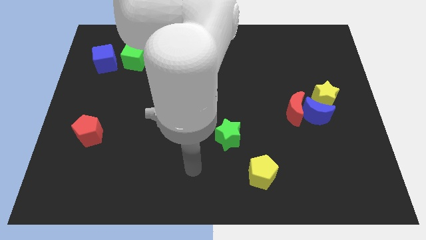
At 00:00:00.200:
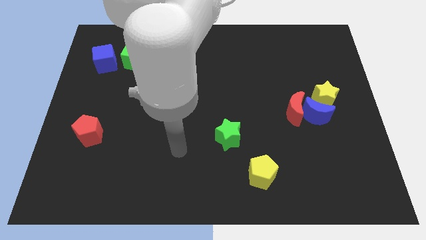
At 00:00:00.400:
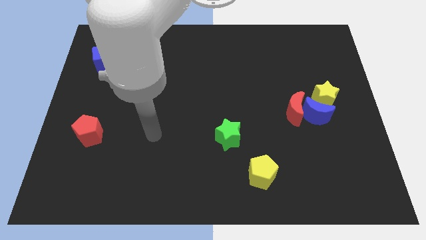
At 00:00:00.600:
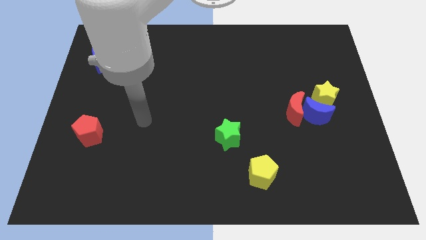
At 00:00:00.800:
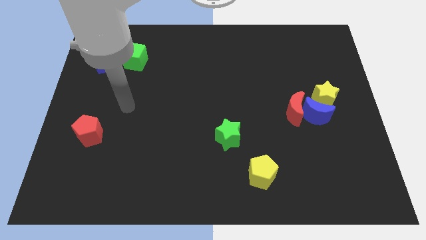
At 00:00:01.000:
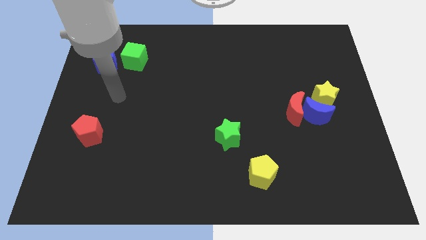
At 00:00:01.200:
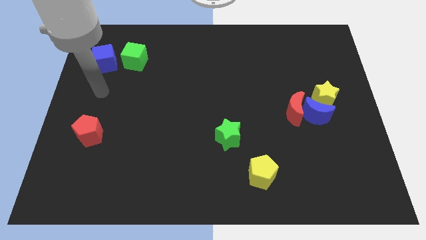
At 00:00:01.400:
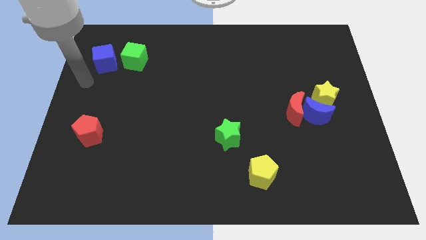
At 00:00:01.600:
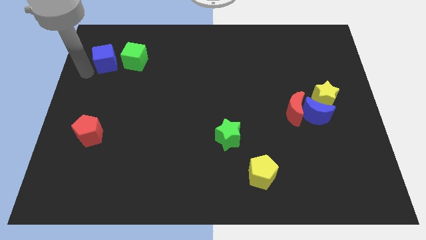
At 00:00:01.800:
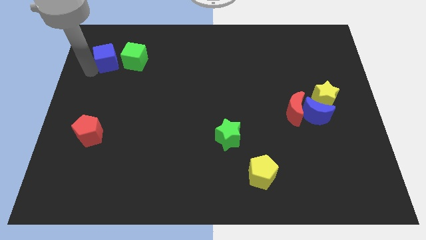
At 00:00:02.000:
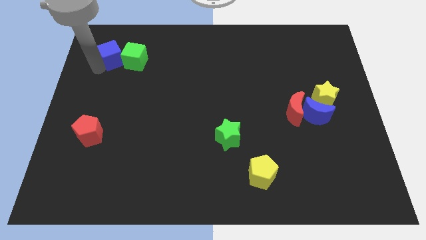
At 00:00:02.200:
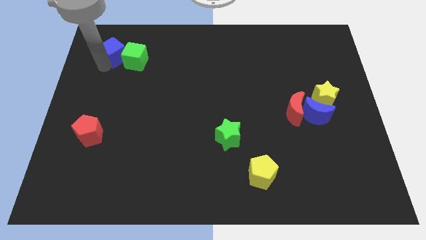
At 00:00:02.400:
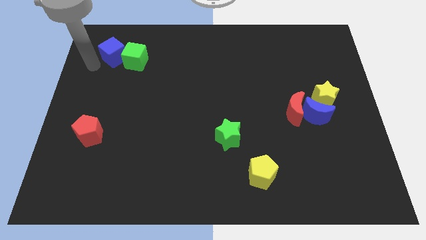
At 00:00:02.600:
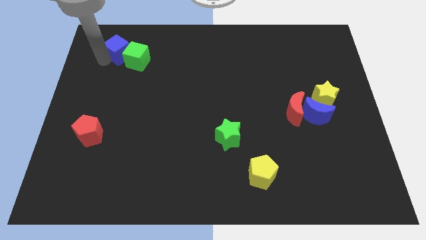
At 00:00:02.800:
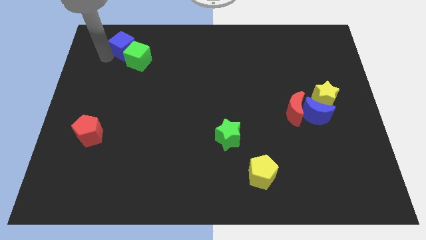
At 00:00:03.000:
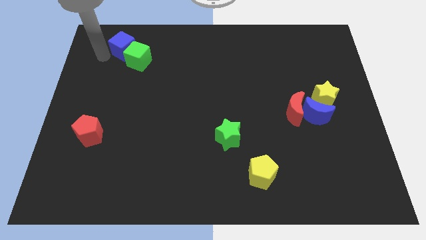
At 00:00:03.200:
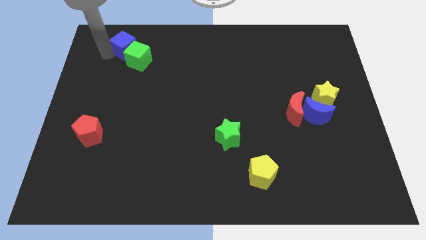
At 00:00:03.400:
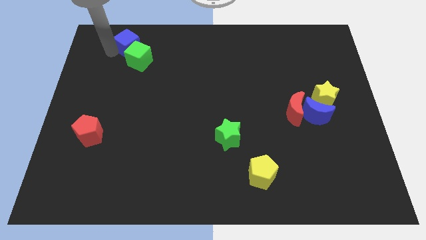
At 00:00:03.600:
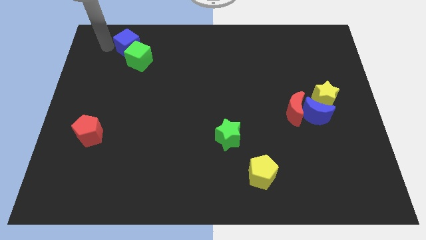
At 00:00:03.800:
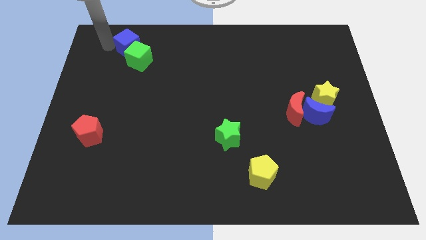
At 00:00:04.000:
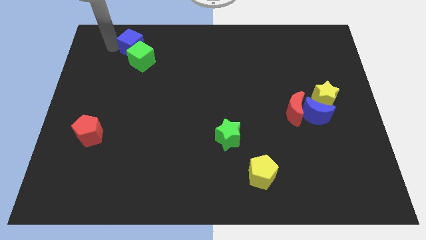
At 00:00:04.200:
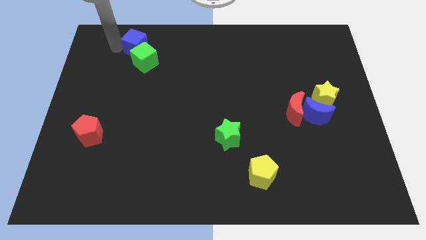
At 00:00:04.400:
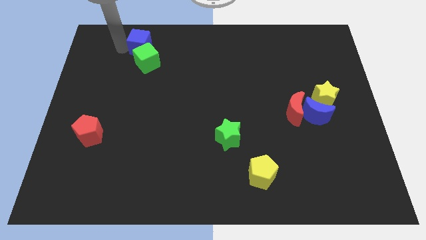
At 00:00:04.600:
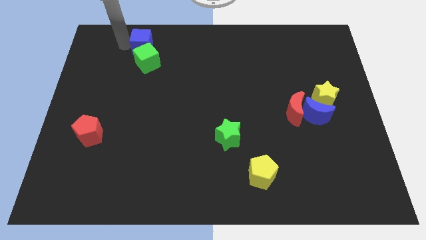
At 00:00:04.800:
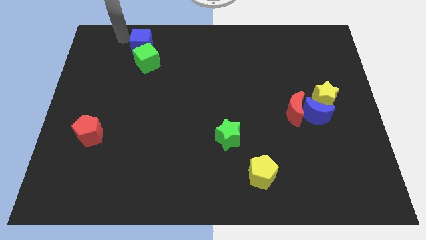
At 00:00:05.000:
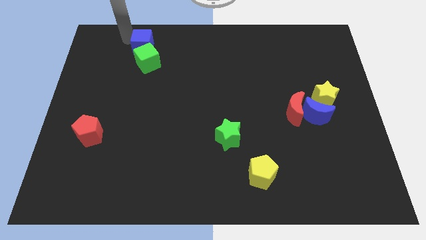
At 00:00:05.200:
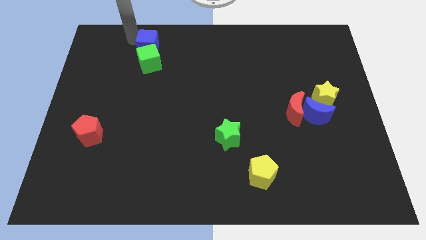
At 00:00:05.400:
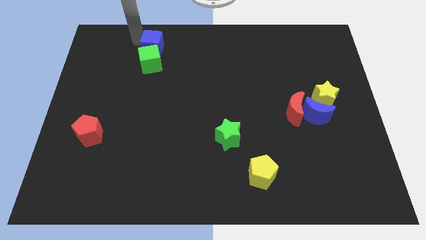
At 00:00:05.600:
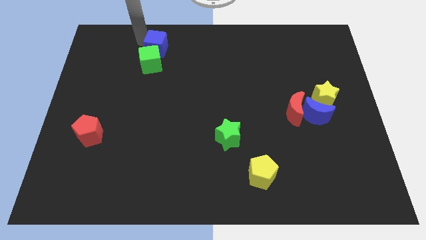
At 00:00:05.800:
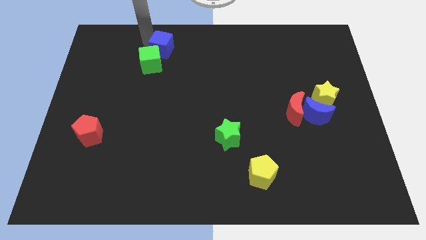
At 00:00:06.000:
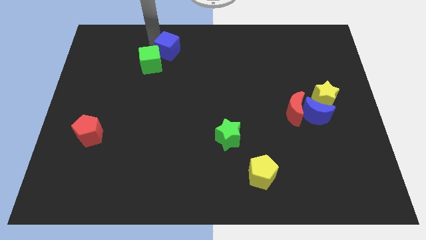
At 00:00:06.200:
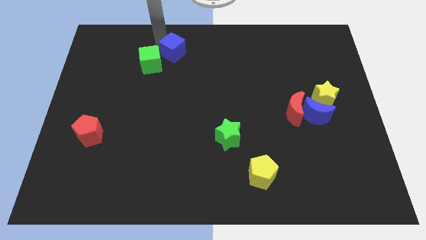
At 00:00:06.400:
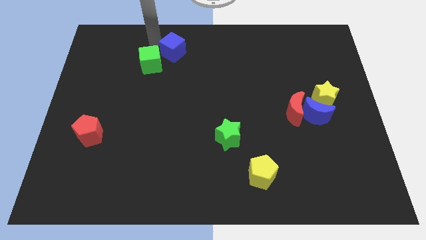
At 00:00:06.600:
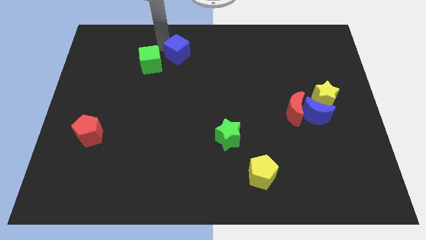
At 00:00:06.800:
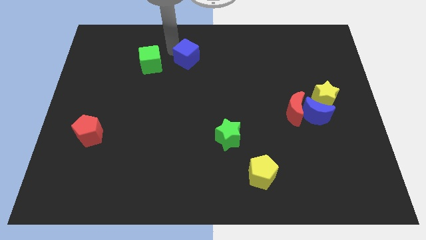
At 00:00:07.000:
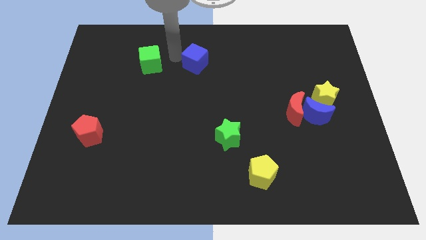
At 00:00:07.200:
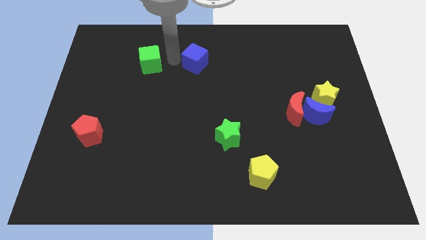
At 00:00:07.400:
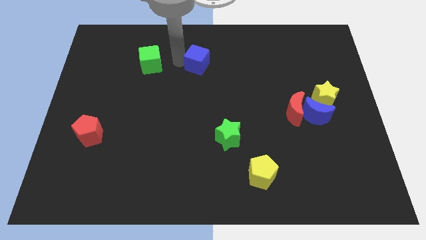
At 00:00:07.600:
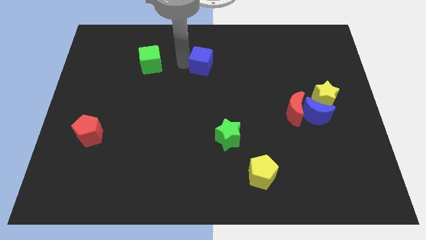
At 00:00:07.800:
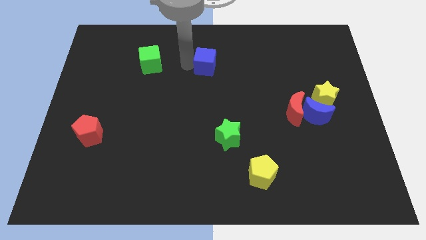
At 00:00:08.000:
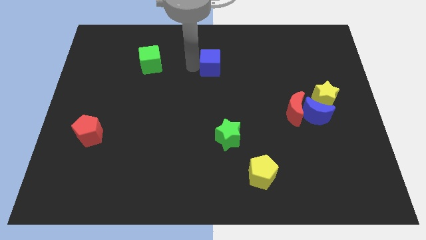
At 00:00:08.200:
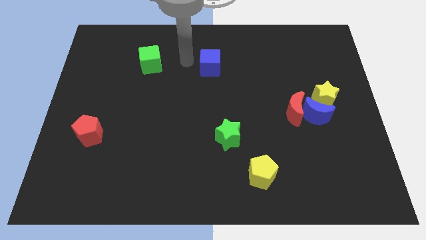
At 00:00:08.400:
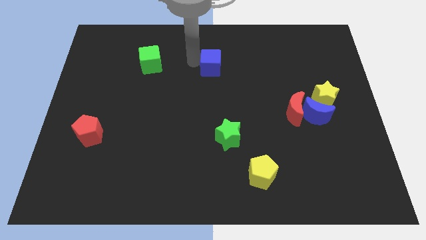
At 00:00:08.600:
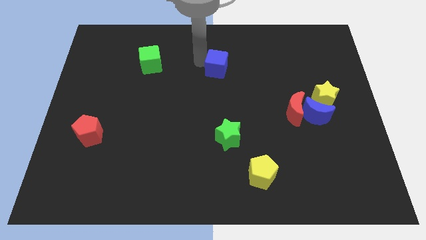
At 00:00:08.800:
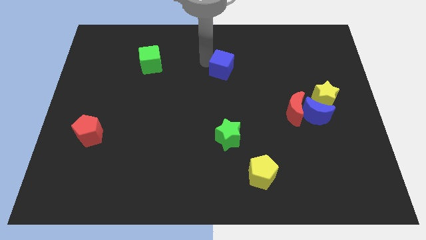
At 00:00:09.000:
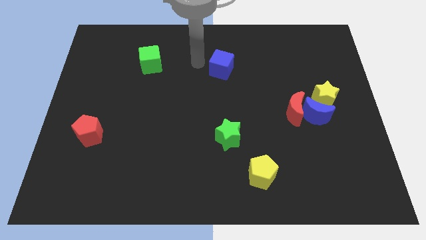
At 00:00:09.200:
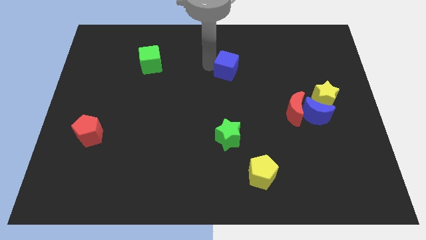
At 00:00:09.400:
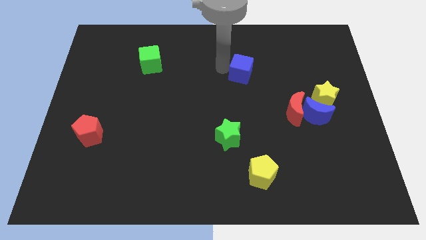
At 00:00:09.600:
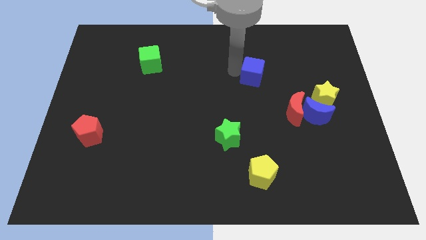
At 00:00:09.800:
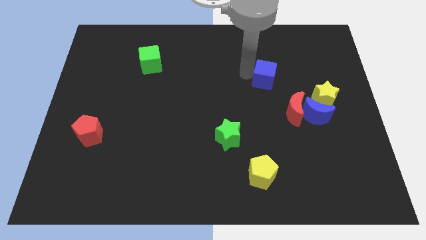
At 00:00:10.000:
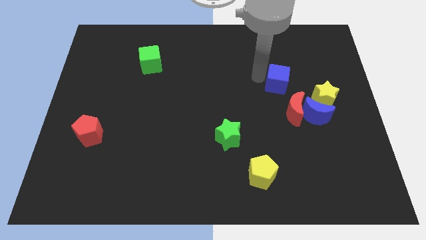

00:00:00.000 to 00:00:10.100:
slide the blue cube diagonally up and to the left of the yellow star

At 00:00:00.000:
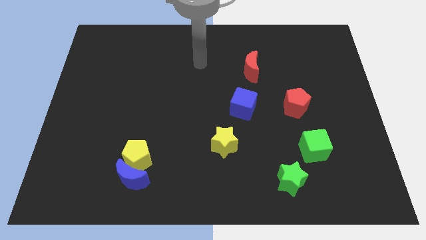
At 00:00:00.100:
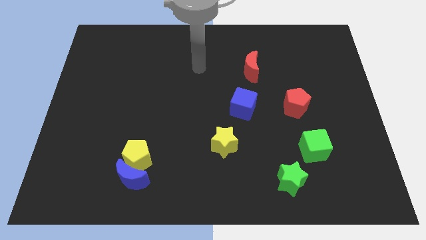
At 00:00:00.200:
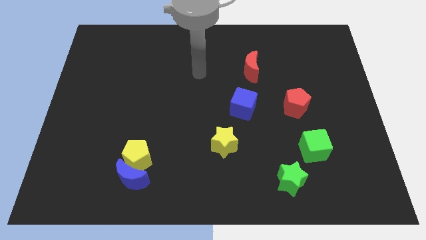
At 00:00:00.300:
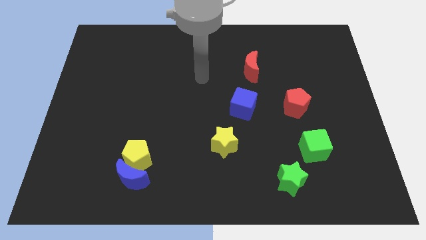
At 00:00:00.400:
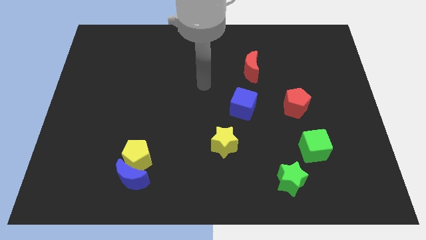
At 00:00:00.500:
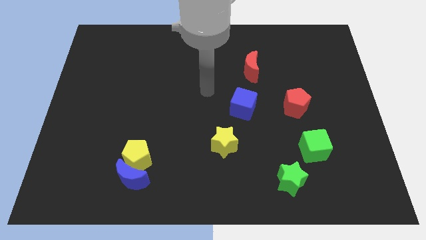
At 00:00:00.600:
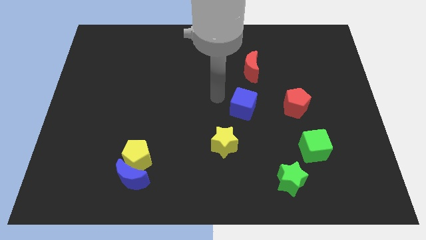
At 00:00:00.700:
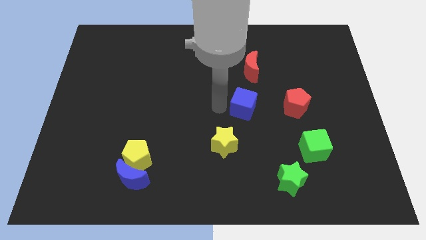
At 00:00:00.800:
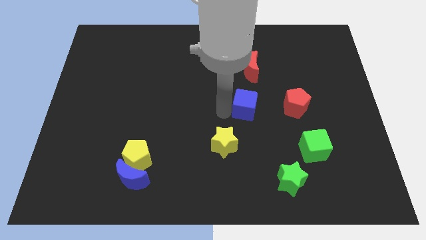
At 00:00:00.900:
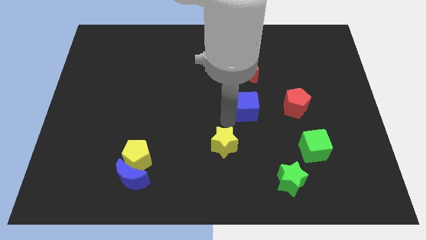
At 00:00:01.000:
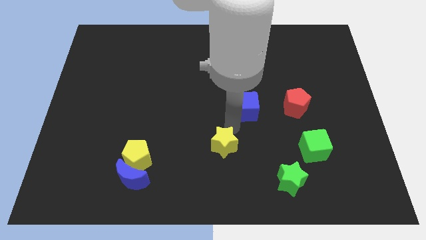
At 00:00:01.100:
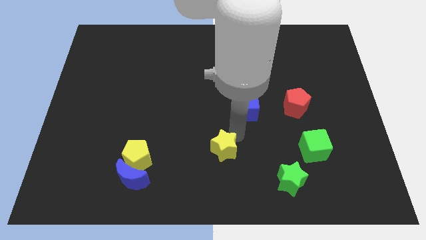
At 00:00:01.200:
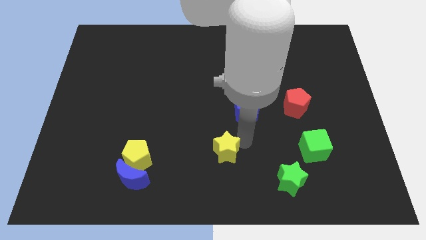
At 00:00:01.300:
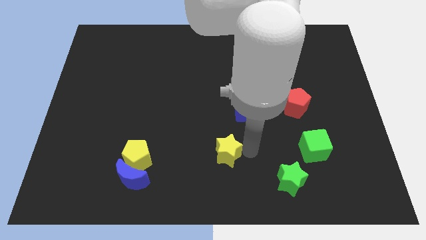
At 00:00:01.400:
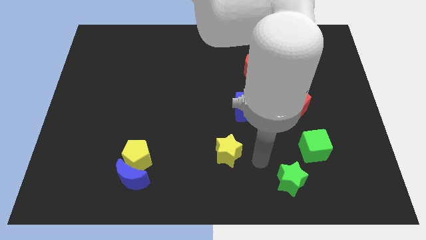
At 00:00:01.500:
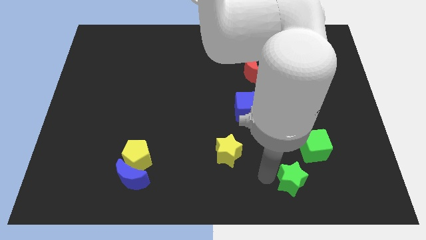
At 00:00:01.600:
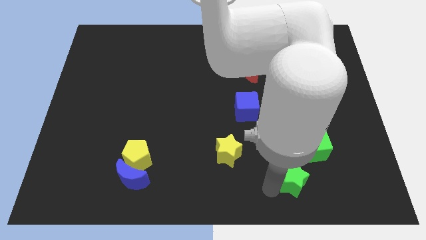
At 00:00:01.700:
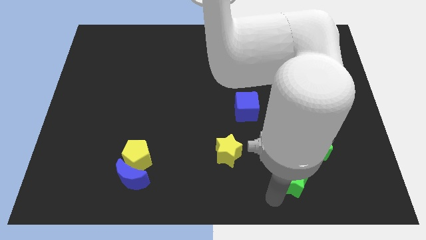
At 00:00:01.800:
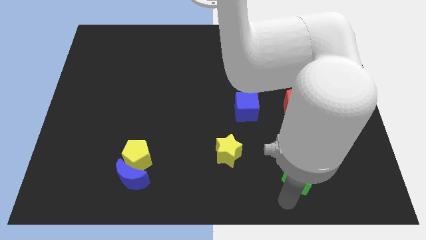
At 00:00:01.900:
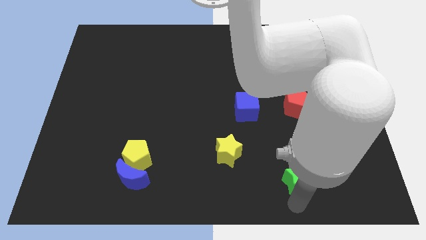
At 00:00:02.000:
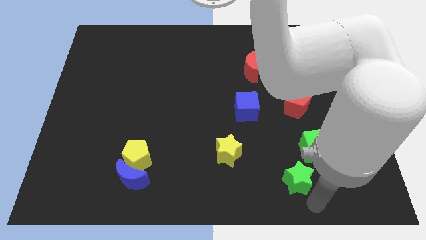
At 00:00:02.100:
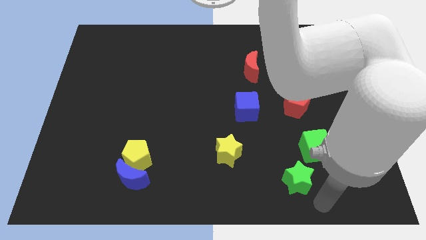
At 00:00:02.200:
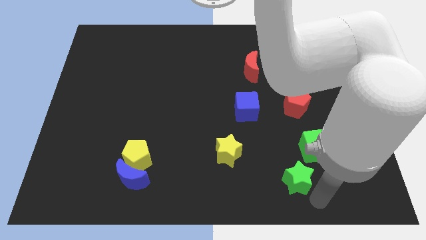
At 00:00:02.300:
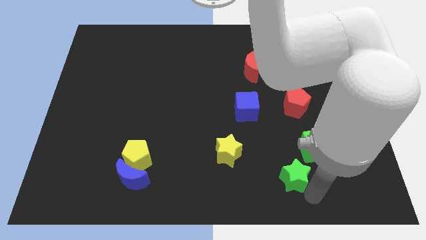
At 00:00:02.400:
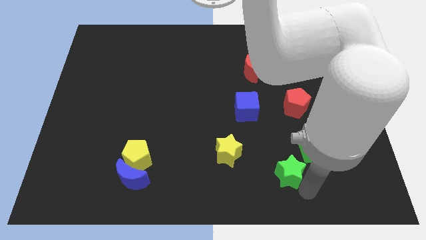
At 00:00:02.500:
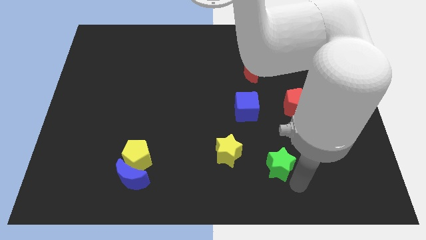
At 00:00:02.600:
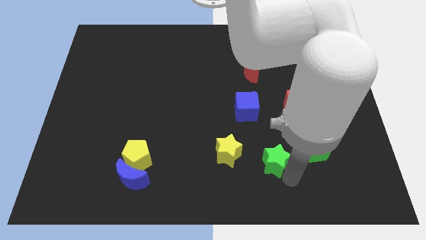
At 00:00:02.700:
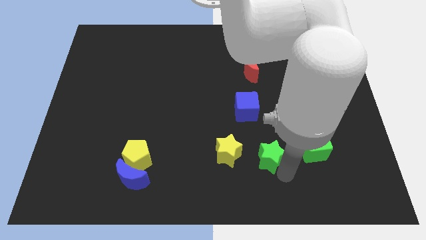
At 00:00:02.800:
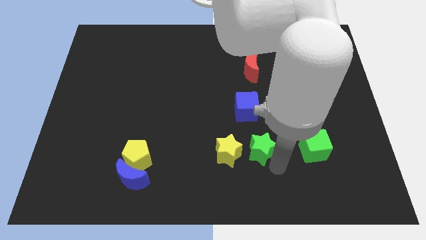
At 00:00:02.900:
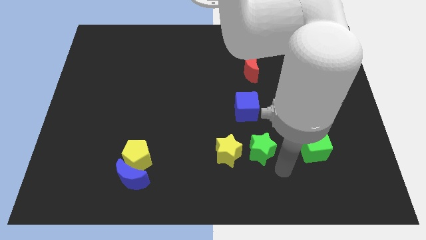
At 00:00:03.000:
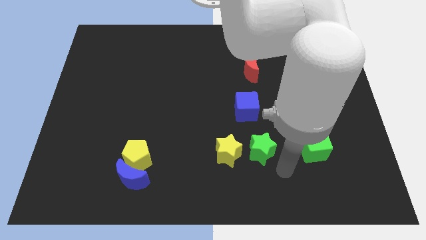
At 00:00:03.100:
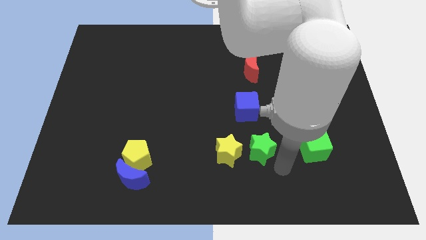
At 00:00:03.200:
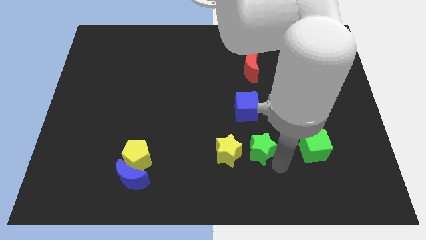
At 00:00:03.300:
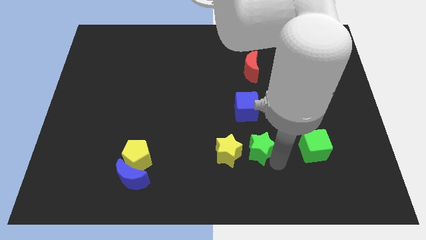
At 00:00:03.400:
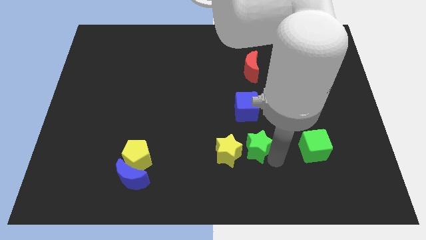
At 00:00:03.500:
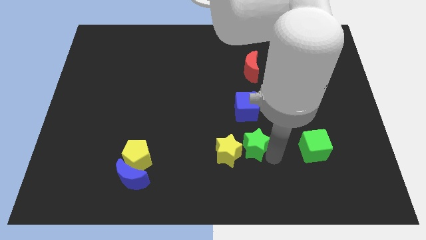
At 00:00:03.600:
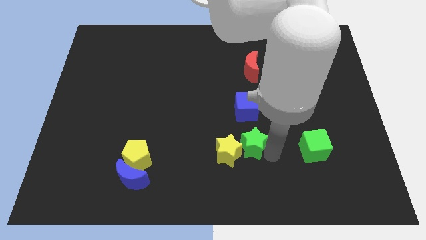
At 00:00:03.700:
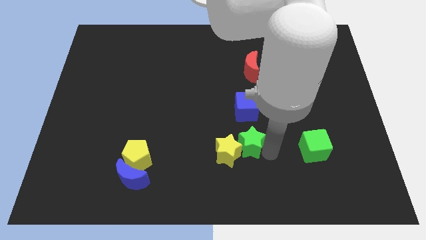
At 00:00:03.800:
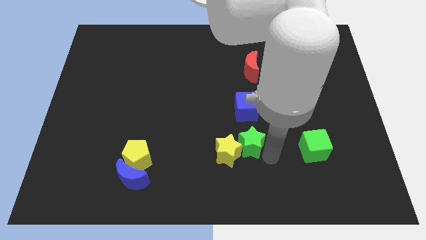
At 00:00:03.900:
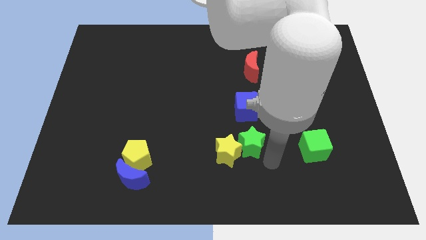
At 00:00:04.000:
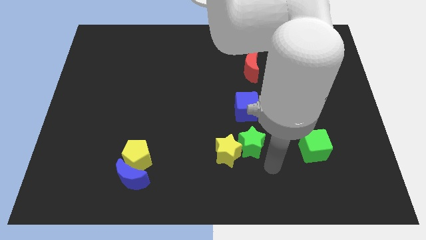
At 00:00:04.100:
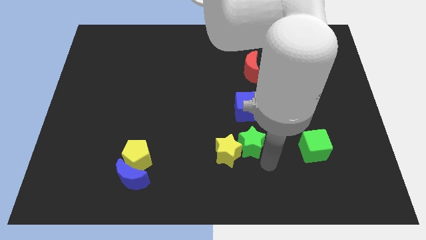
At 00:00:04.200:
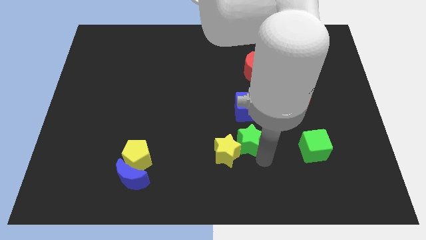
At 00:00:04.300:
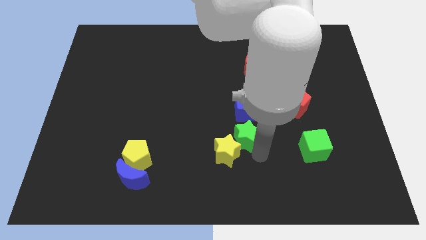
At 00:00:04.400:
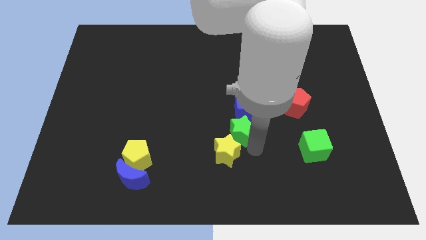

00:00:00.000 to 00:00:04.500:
slide the green star to the bottom left of the blue cube
